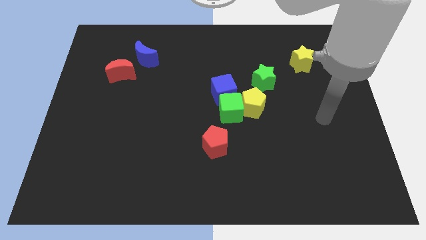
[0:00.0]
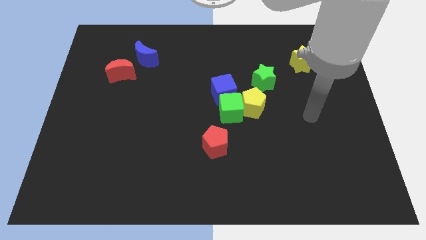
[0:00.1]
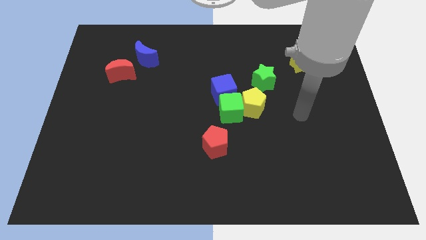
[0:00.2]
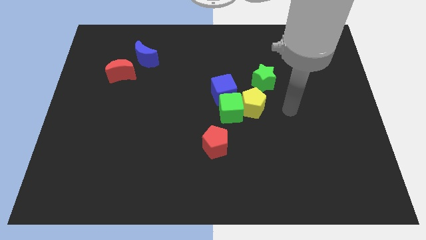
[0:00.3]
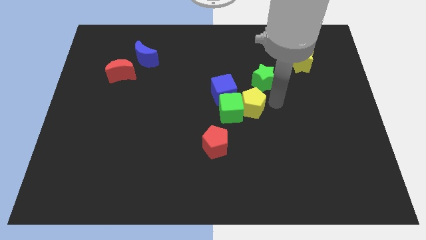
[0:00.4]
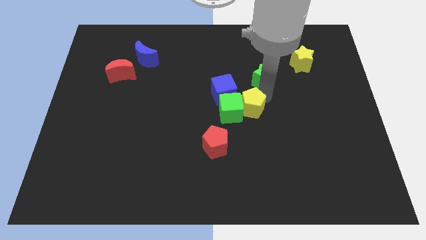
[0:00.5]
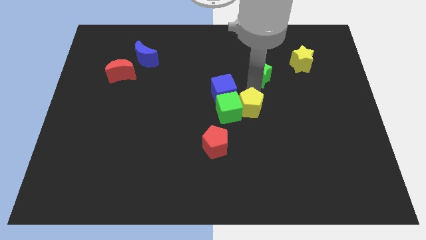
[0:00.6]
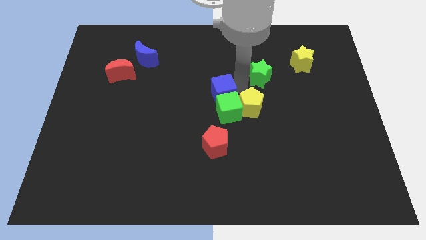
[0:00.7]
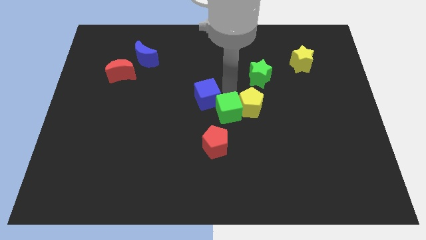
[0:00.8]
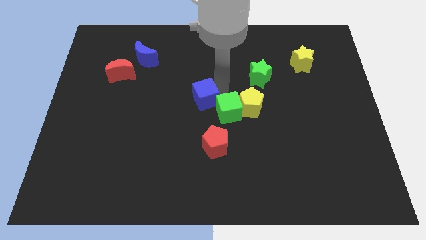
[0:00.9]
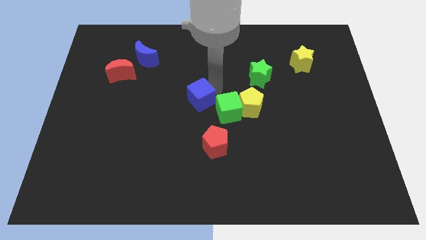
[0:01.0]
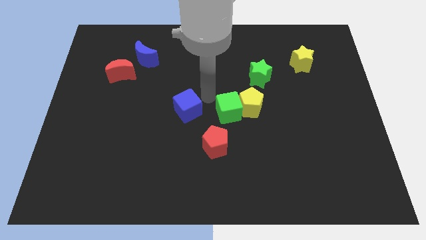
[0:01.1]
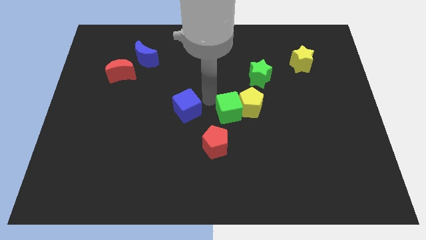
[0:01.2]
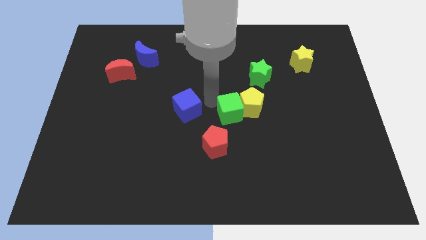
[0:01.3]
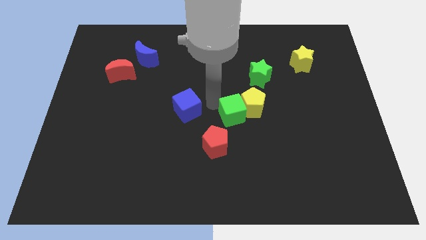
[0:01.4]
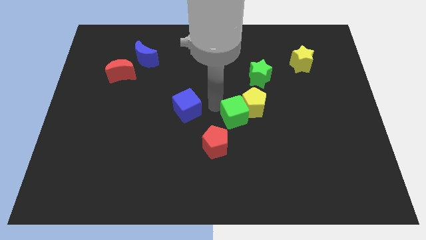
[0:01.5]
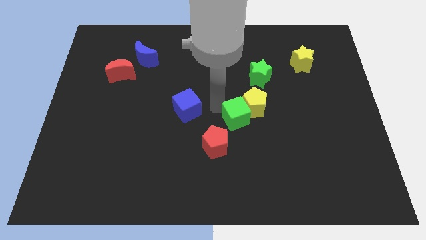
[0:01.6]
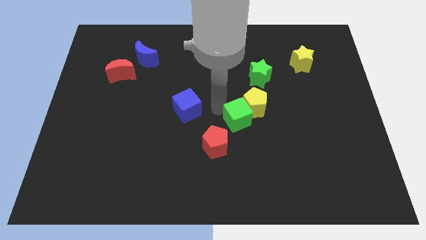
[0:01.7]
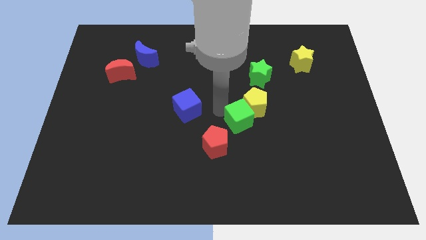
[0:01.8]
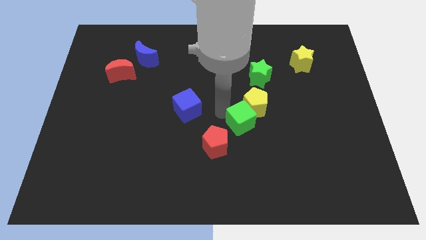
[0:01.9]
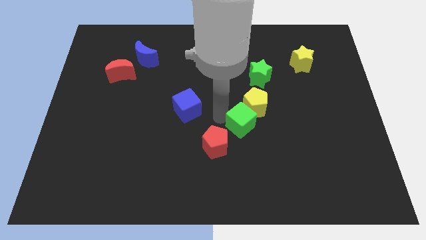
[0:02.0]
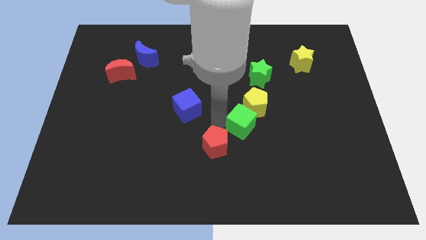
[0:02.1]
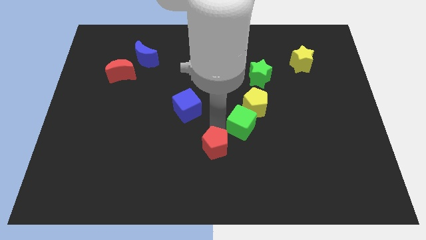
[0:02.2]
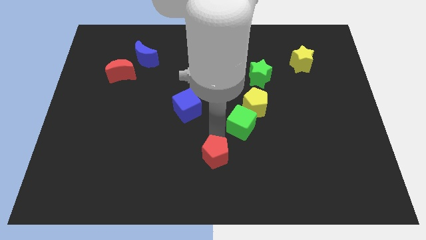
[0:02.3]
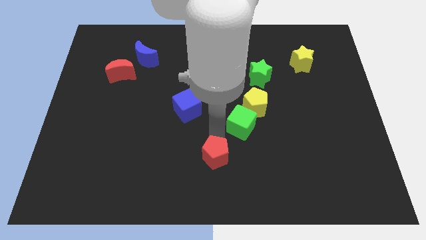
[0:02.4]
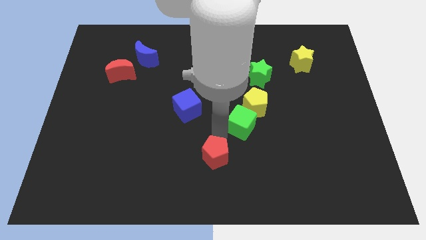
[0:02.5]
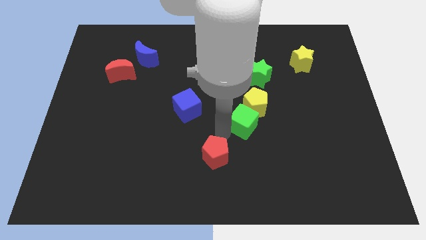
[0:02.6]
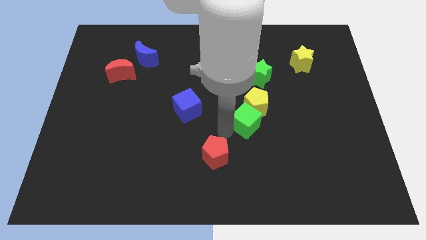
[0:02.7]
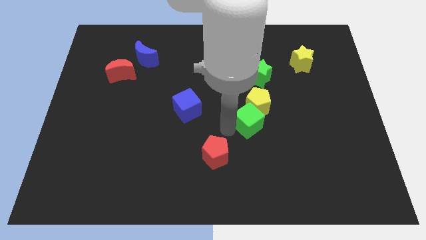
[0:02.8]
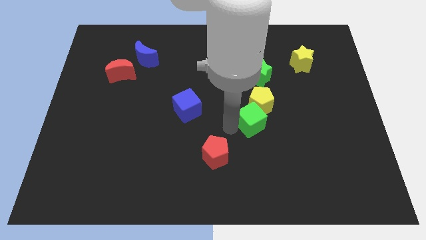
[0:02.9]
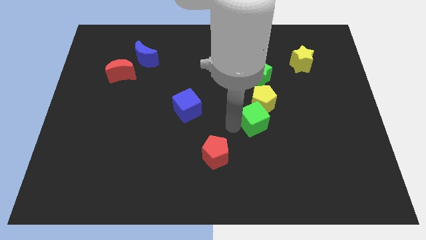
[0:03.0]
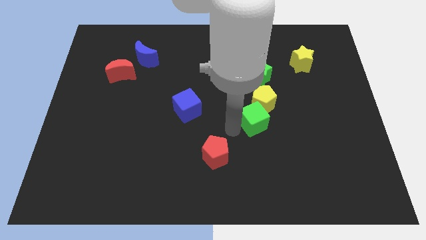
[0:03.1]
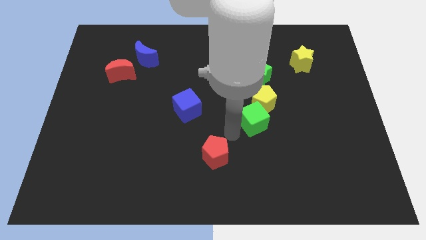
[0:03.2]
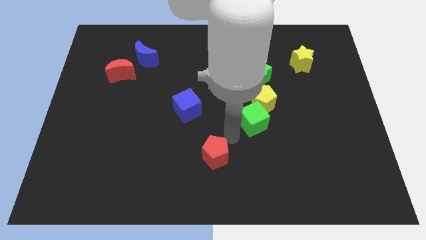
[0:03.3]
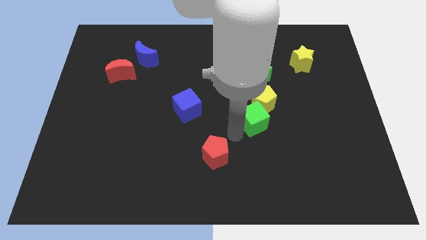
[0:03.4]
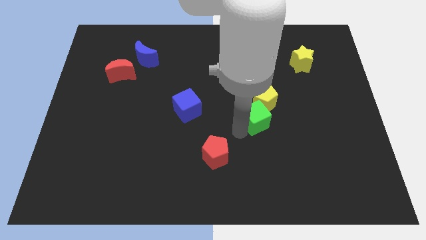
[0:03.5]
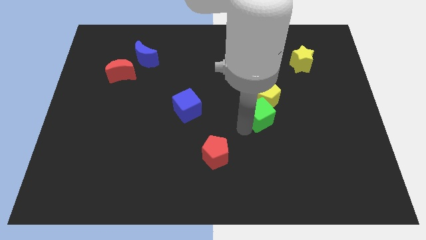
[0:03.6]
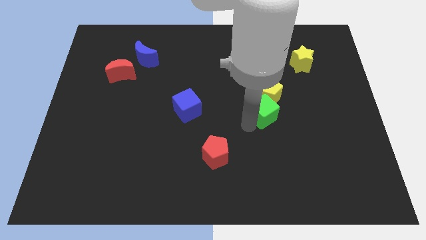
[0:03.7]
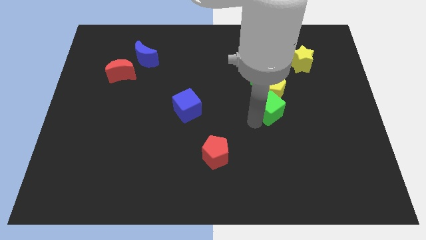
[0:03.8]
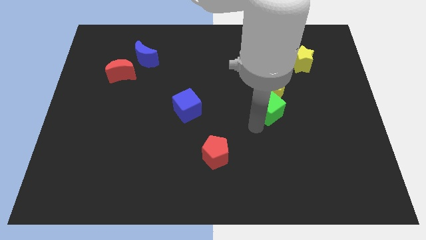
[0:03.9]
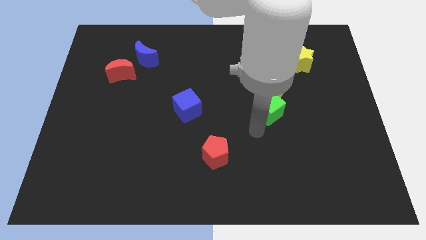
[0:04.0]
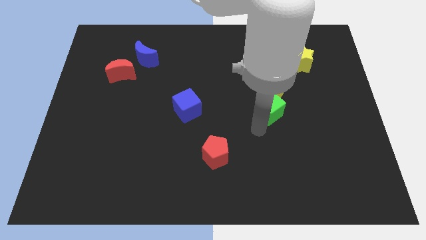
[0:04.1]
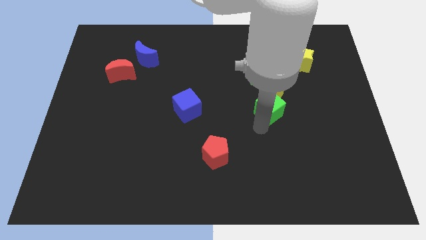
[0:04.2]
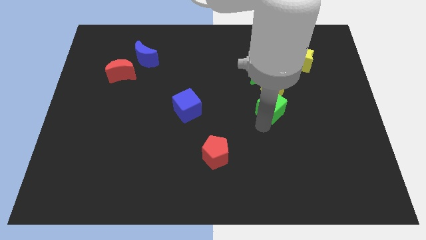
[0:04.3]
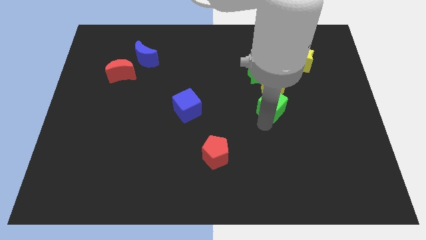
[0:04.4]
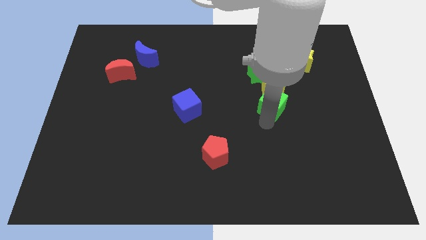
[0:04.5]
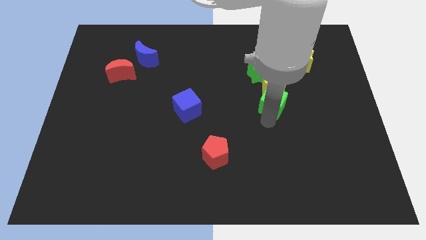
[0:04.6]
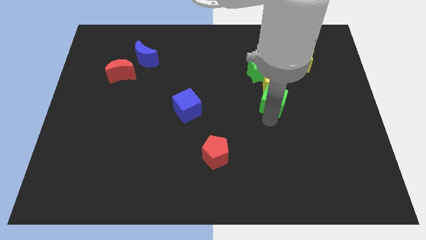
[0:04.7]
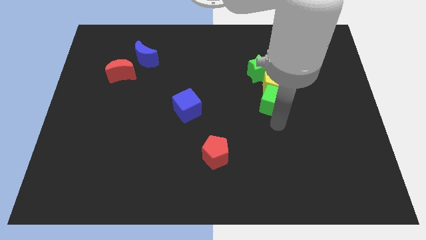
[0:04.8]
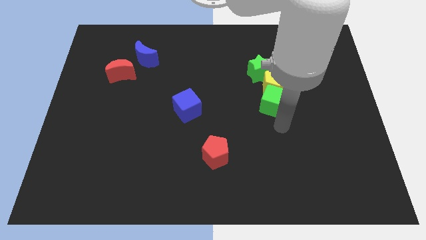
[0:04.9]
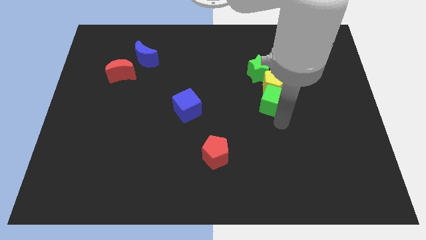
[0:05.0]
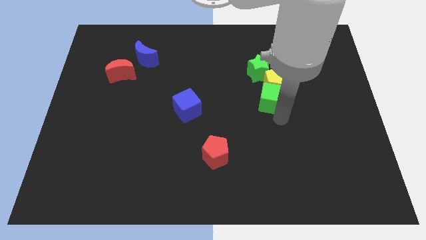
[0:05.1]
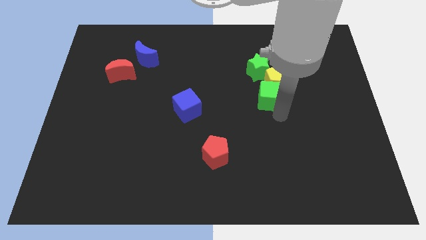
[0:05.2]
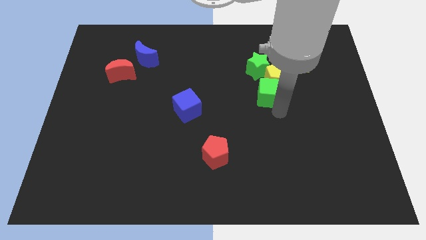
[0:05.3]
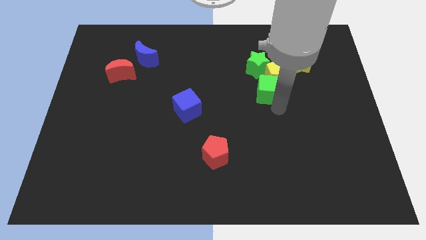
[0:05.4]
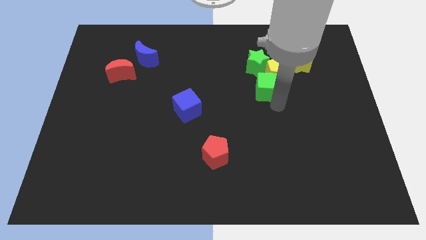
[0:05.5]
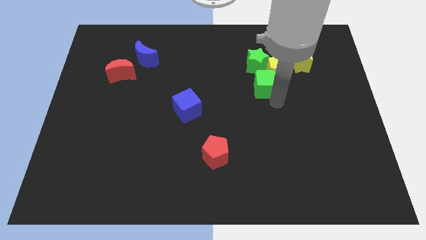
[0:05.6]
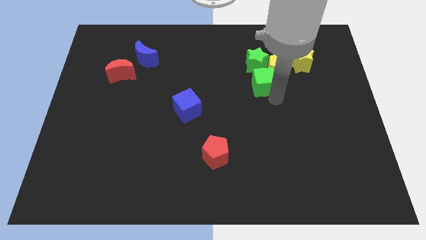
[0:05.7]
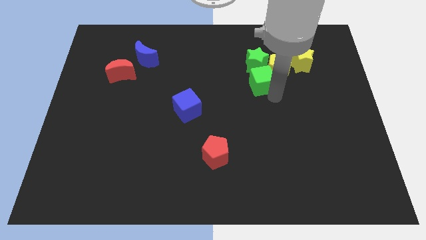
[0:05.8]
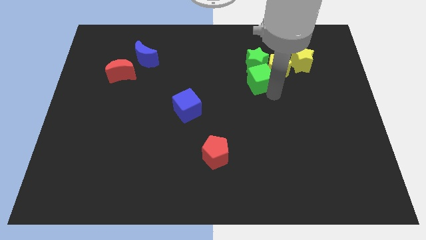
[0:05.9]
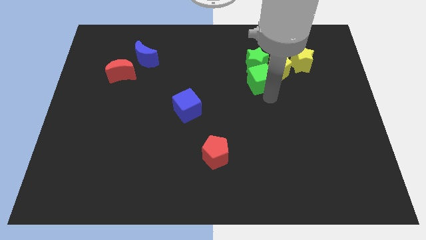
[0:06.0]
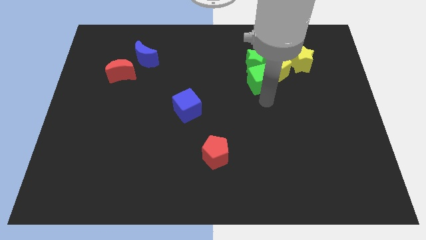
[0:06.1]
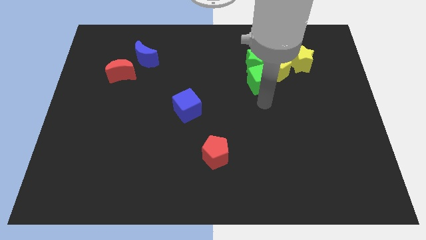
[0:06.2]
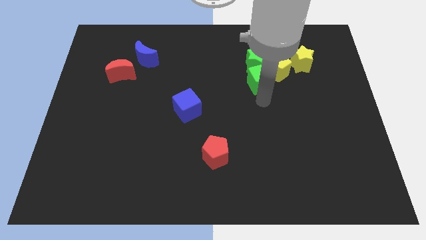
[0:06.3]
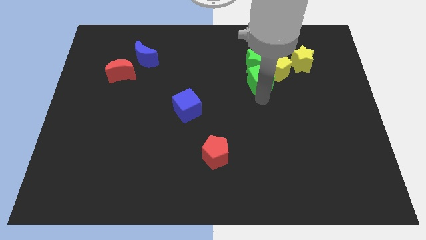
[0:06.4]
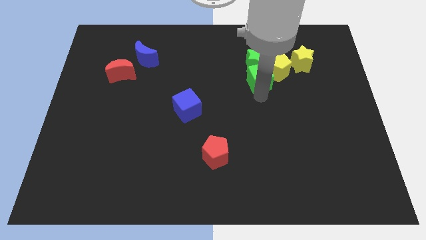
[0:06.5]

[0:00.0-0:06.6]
put the green cube to the green star

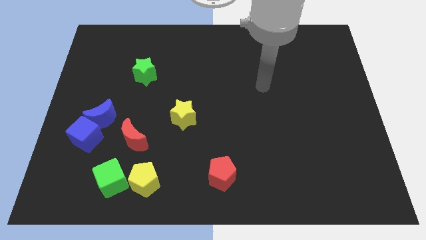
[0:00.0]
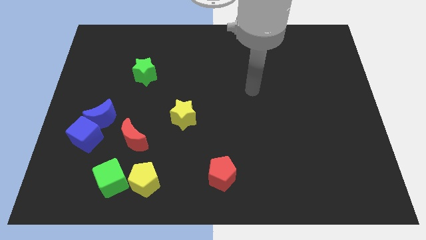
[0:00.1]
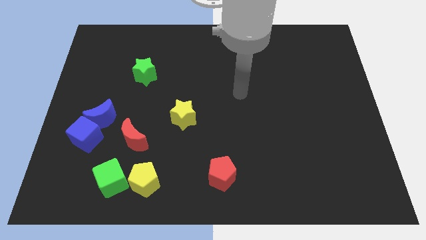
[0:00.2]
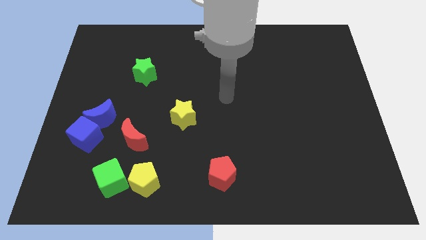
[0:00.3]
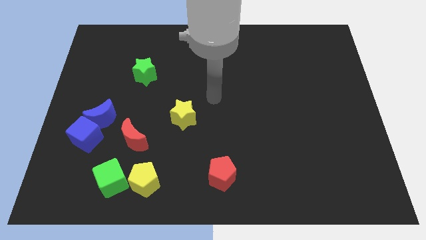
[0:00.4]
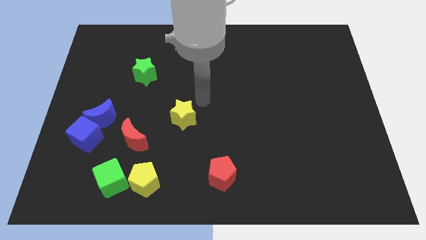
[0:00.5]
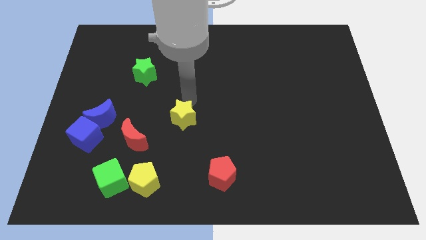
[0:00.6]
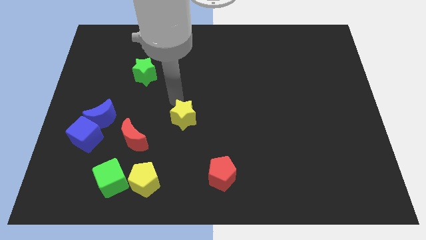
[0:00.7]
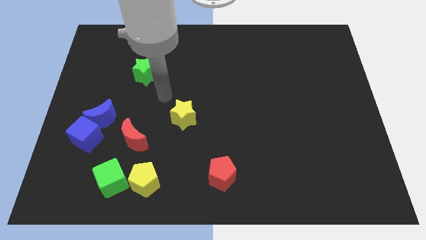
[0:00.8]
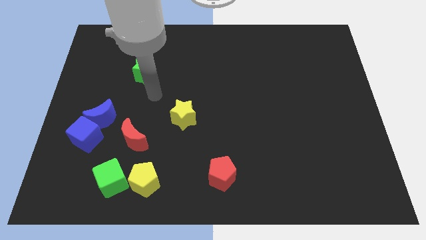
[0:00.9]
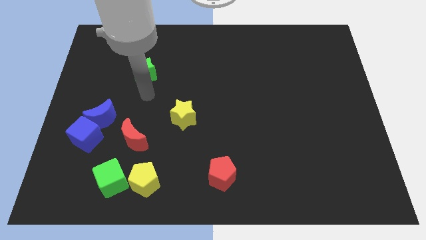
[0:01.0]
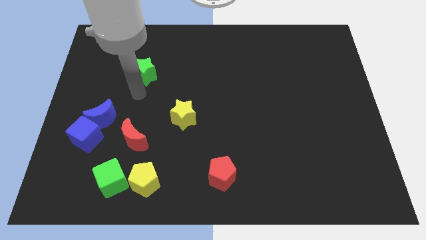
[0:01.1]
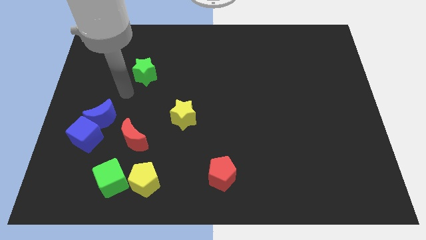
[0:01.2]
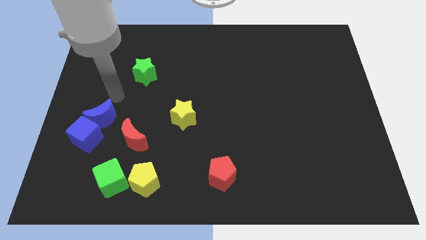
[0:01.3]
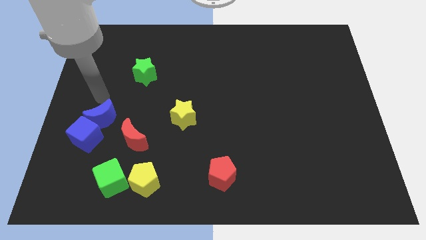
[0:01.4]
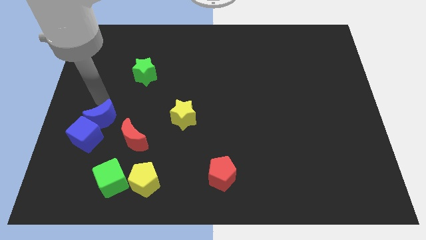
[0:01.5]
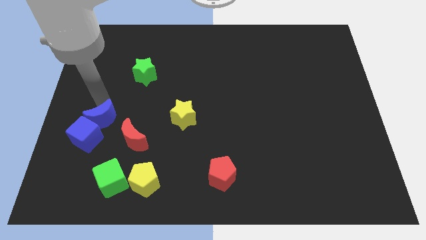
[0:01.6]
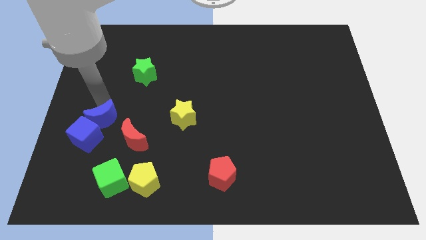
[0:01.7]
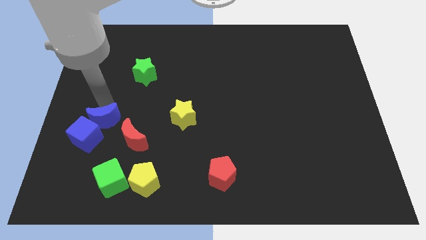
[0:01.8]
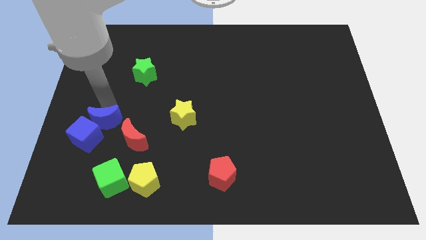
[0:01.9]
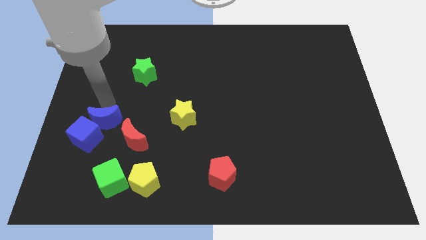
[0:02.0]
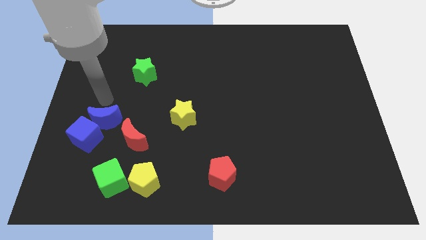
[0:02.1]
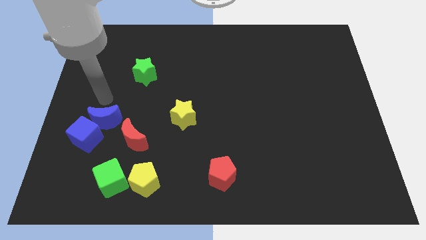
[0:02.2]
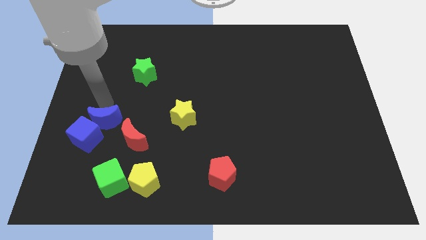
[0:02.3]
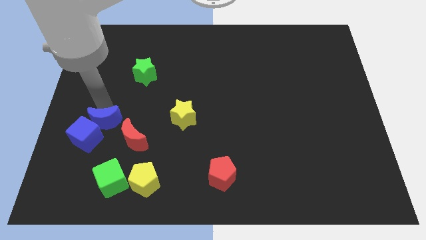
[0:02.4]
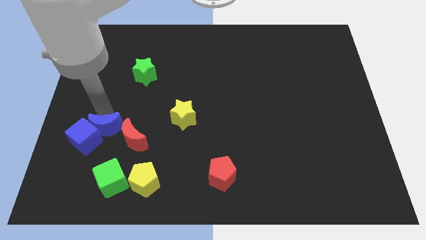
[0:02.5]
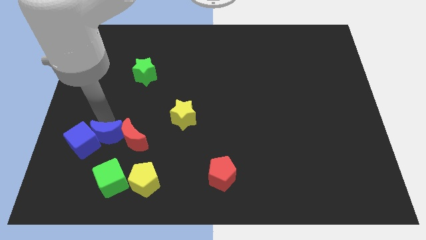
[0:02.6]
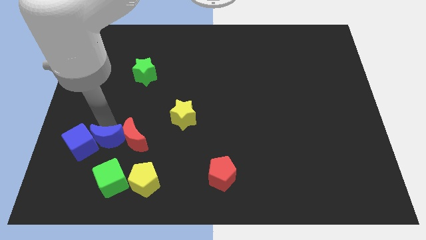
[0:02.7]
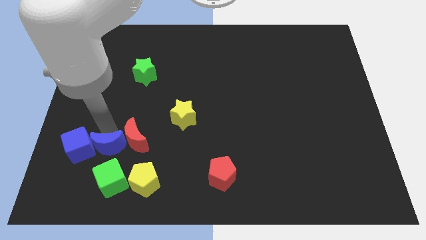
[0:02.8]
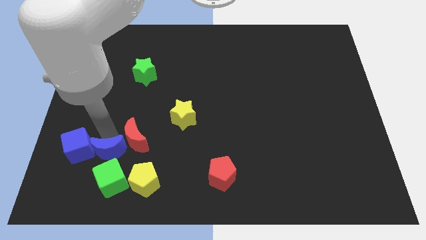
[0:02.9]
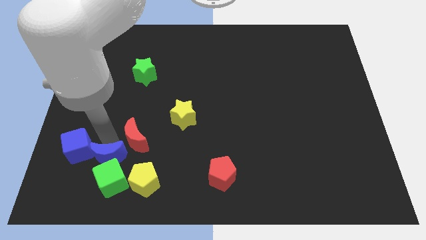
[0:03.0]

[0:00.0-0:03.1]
move the blue moon close to the green cube
